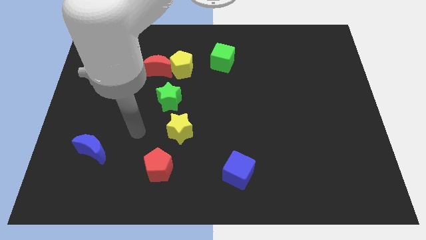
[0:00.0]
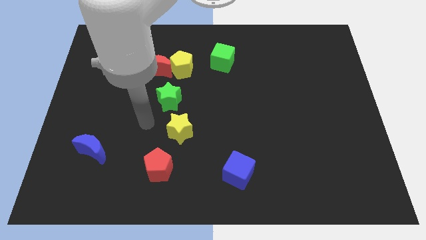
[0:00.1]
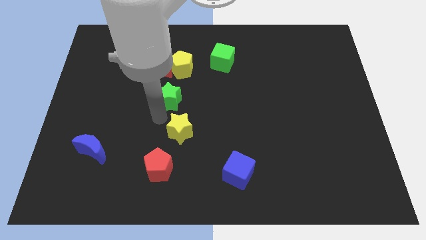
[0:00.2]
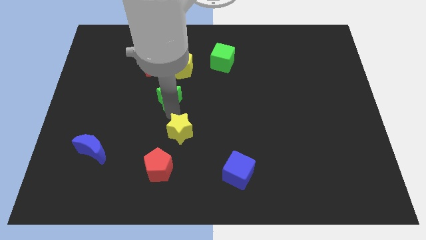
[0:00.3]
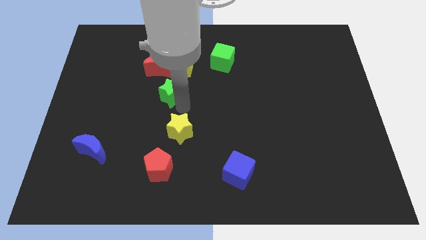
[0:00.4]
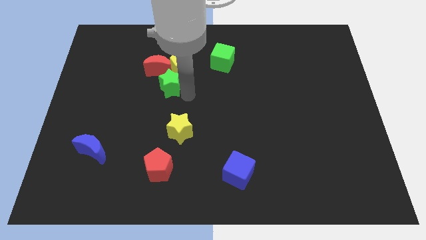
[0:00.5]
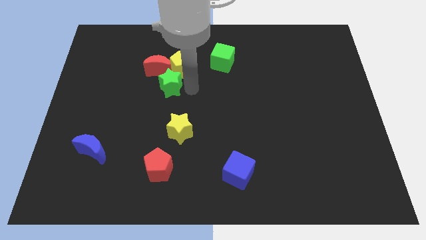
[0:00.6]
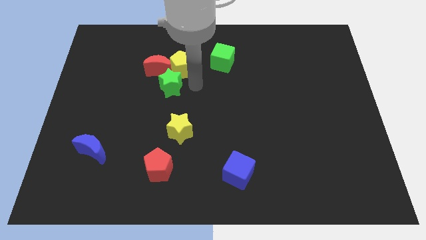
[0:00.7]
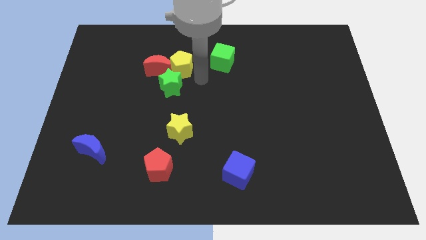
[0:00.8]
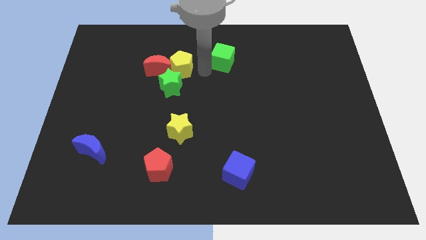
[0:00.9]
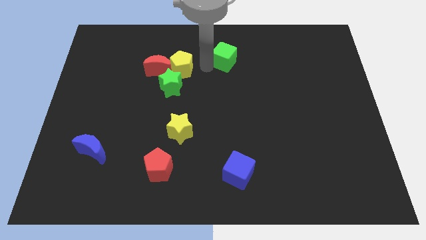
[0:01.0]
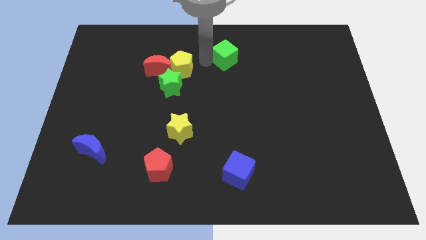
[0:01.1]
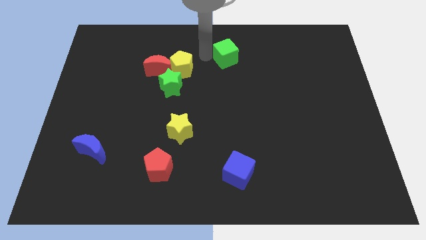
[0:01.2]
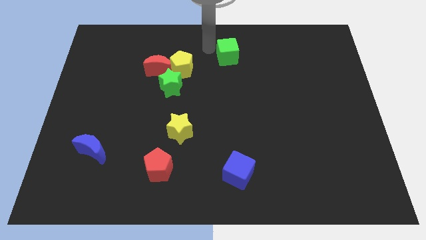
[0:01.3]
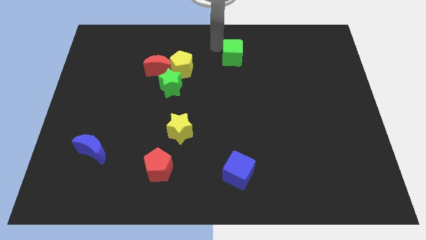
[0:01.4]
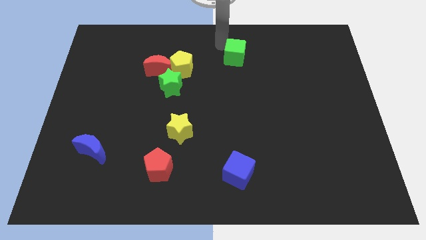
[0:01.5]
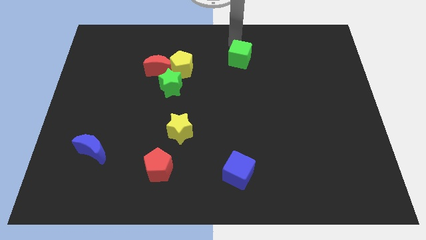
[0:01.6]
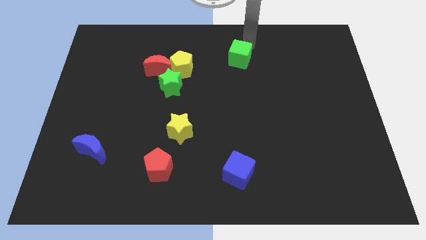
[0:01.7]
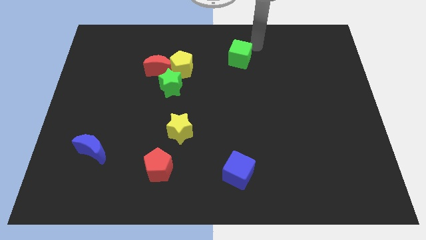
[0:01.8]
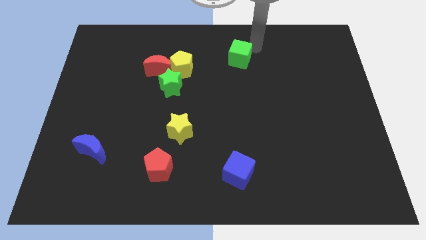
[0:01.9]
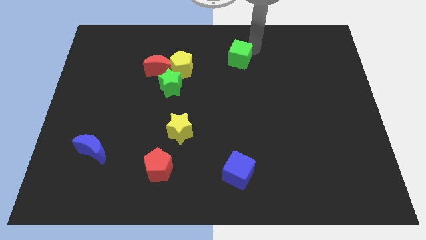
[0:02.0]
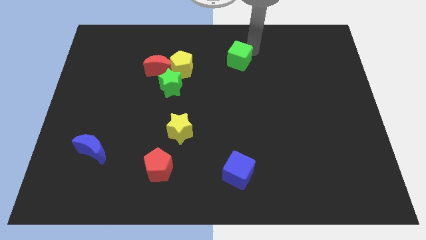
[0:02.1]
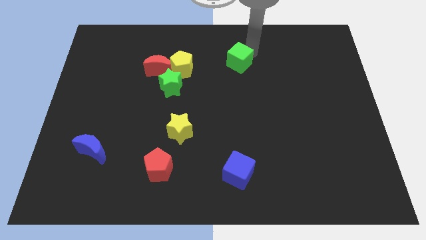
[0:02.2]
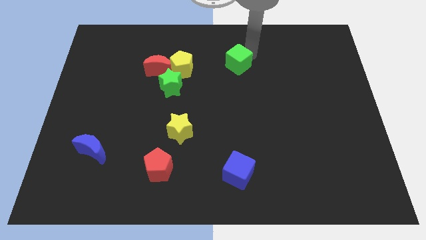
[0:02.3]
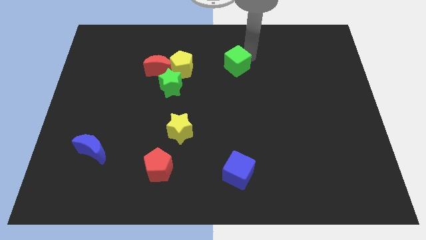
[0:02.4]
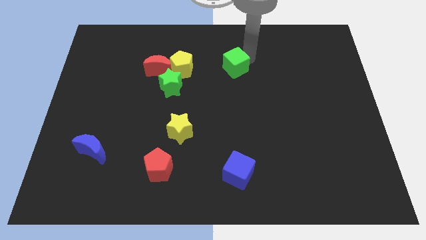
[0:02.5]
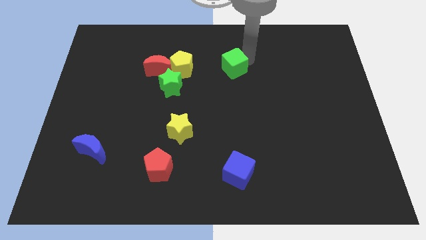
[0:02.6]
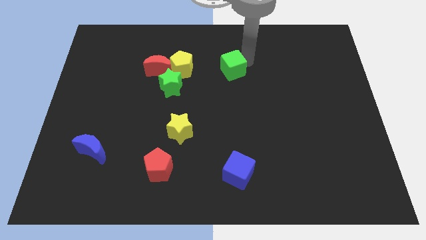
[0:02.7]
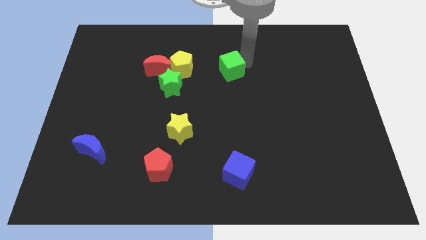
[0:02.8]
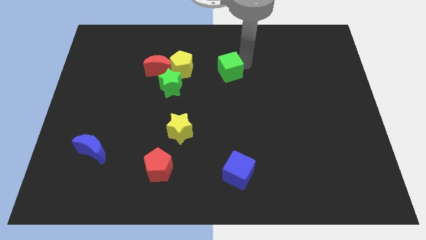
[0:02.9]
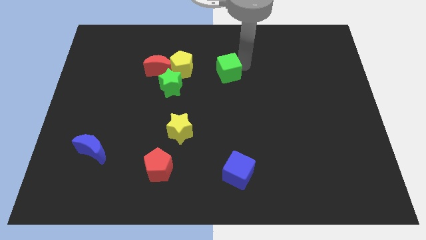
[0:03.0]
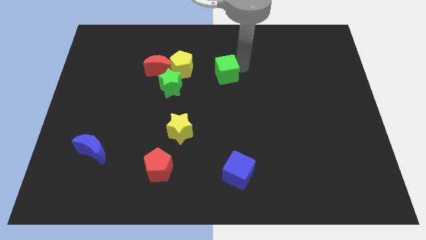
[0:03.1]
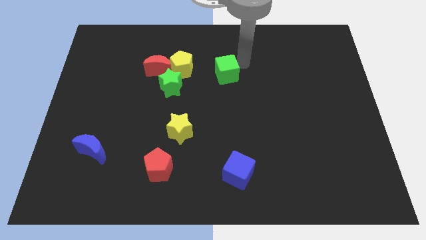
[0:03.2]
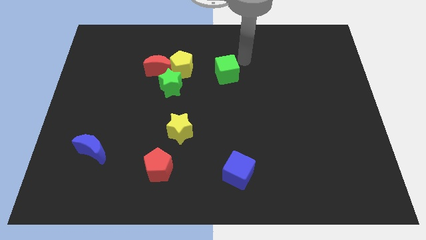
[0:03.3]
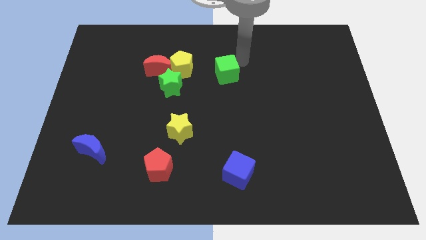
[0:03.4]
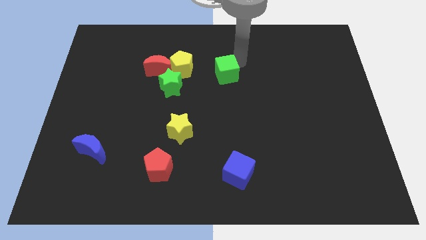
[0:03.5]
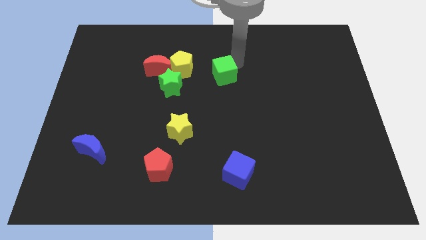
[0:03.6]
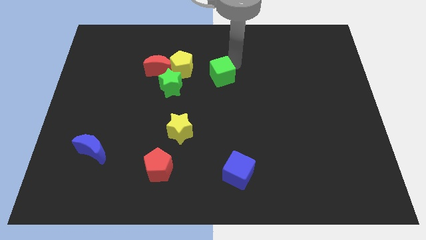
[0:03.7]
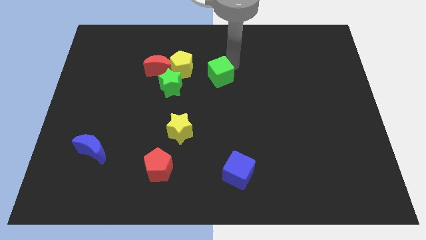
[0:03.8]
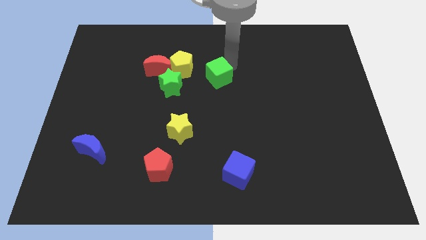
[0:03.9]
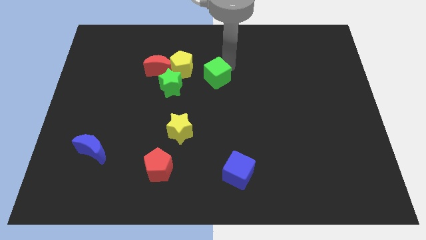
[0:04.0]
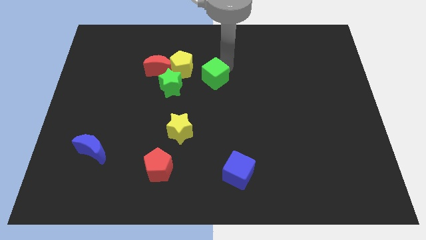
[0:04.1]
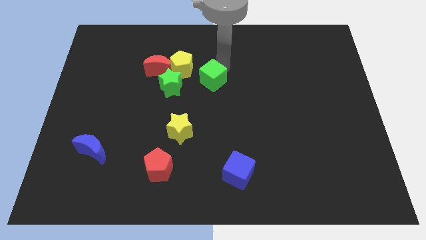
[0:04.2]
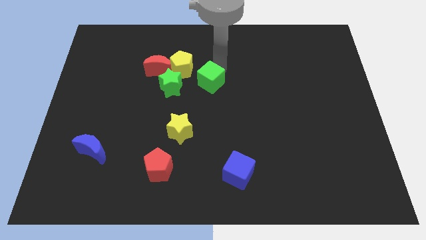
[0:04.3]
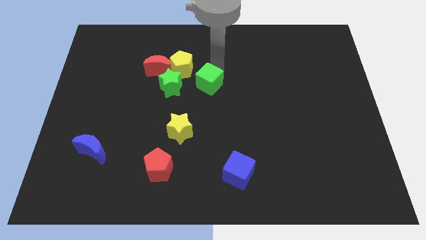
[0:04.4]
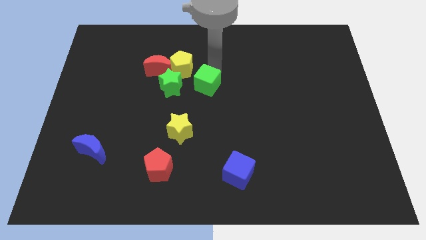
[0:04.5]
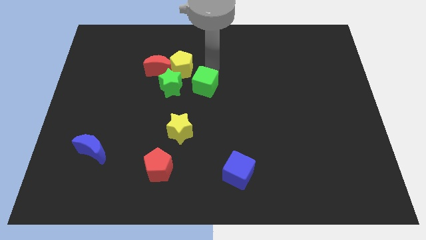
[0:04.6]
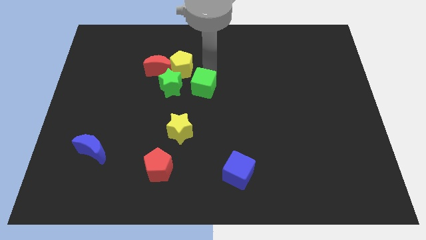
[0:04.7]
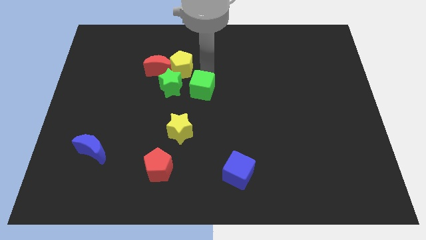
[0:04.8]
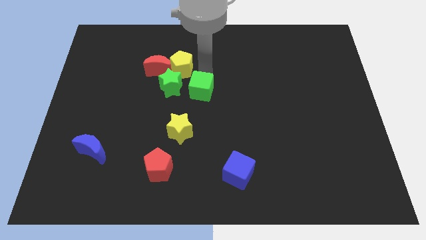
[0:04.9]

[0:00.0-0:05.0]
push the green cube diagonally down and to the right of the green star

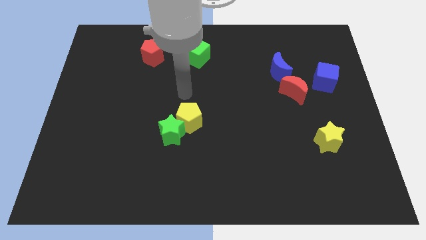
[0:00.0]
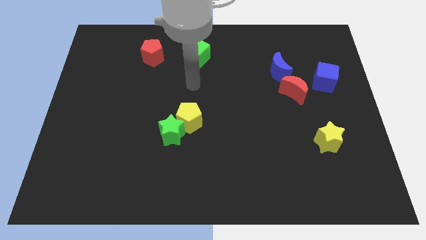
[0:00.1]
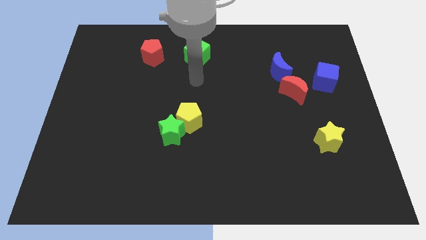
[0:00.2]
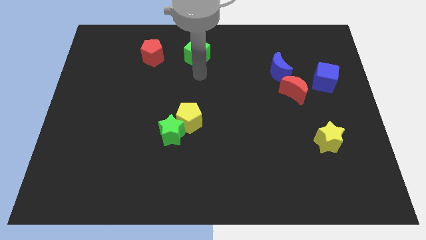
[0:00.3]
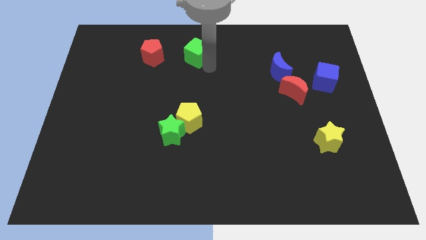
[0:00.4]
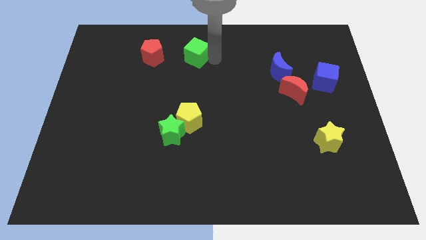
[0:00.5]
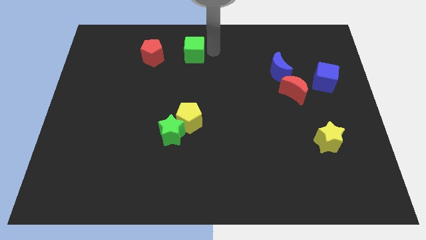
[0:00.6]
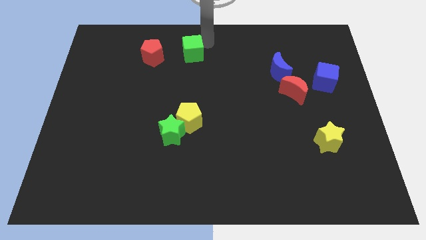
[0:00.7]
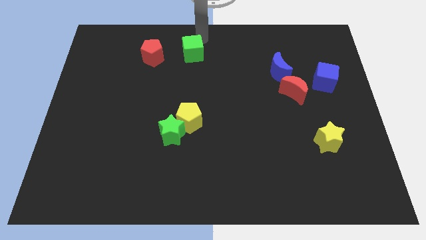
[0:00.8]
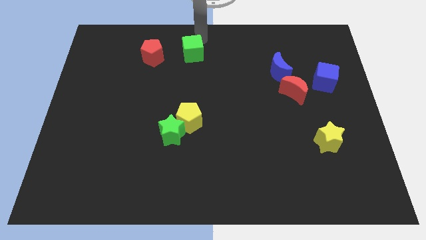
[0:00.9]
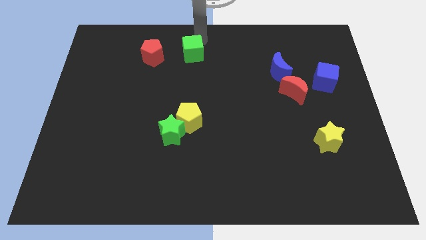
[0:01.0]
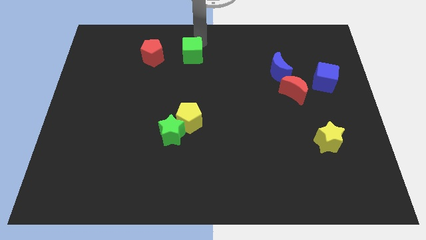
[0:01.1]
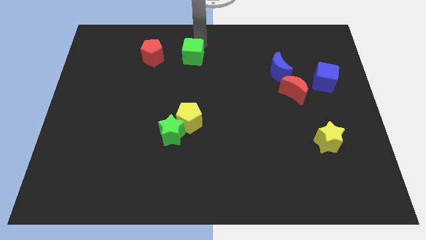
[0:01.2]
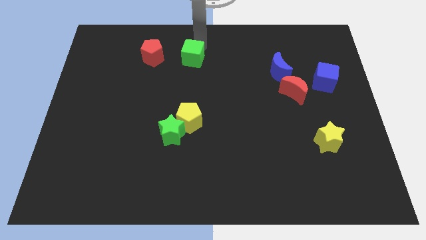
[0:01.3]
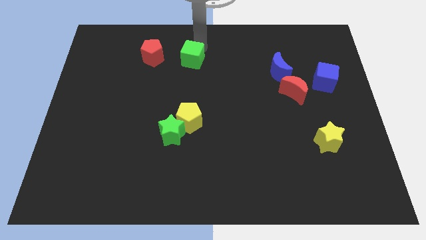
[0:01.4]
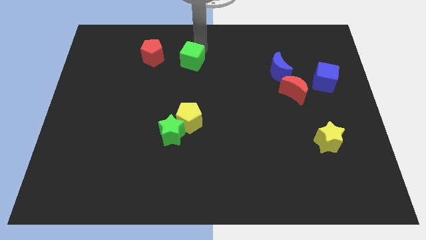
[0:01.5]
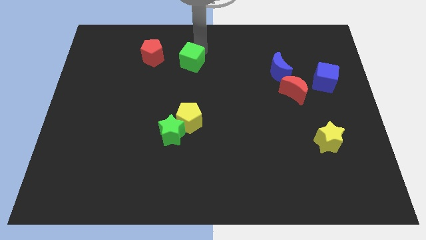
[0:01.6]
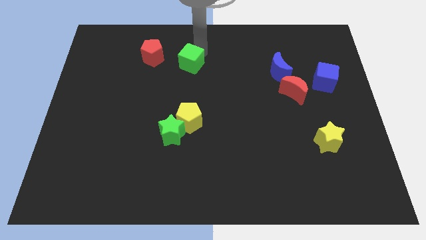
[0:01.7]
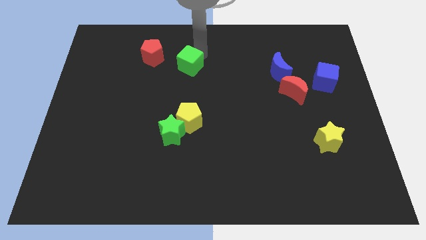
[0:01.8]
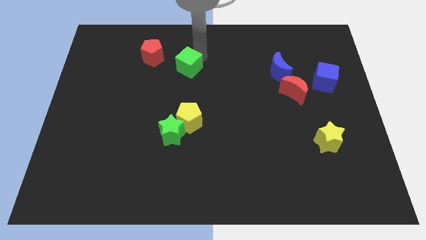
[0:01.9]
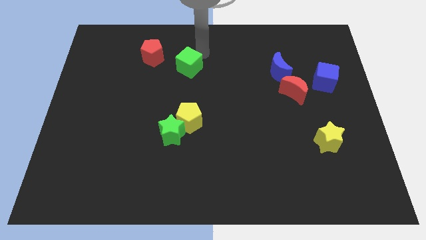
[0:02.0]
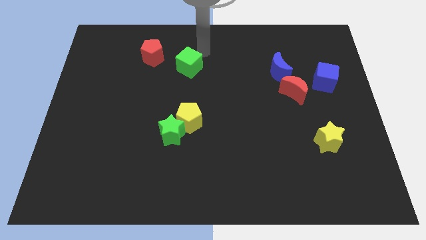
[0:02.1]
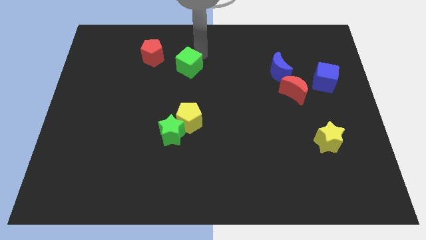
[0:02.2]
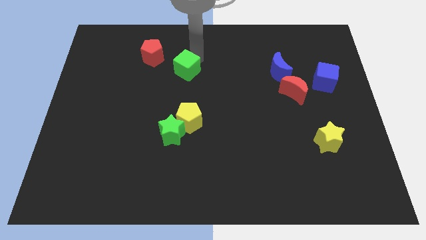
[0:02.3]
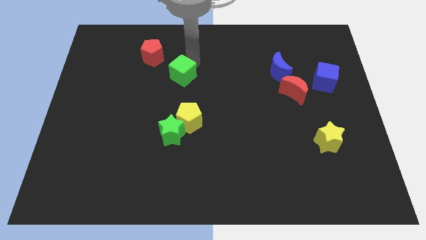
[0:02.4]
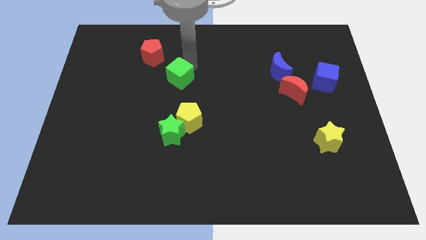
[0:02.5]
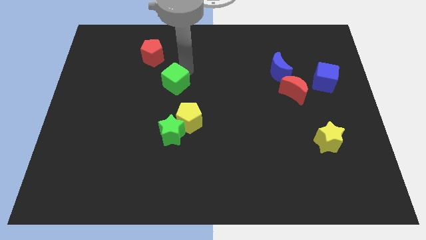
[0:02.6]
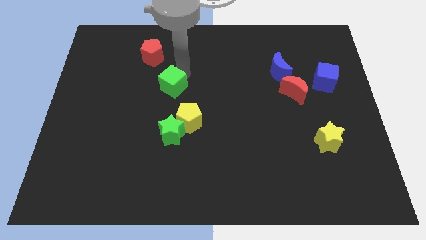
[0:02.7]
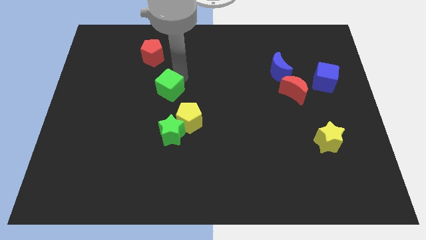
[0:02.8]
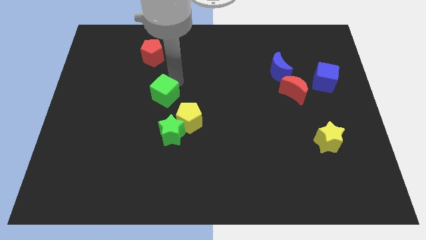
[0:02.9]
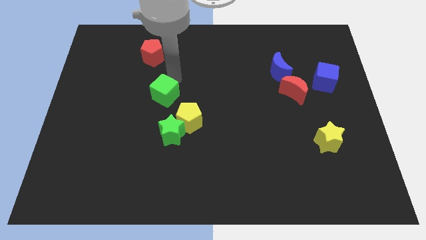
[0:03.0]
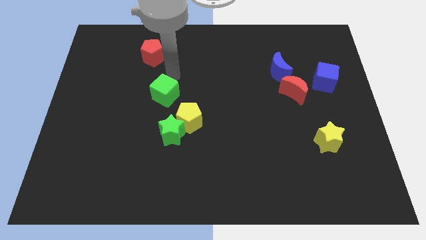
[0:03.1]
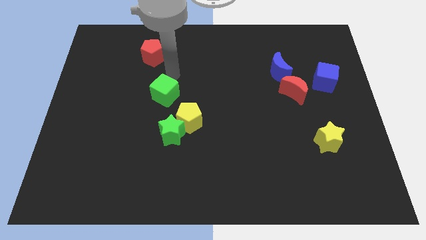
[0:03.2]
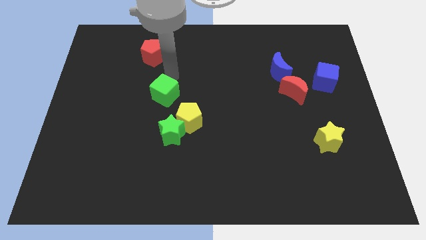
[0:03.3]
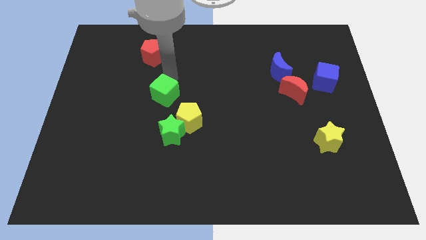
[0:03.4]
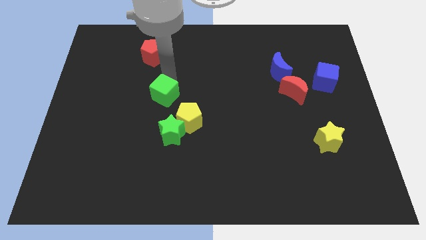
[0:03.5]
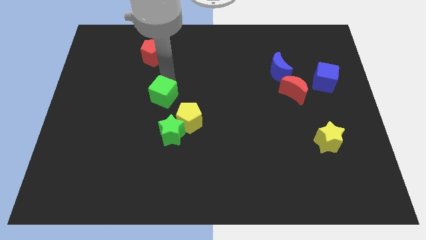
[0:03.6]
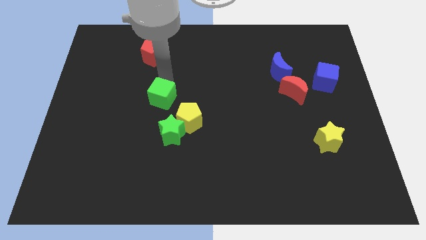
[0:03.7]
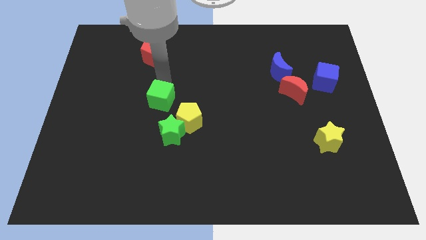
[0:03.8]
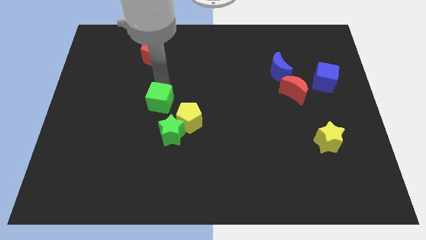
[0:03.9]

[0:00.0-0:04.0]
move the green cube to the top left of the green star
